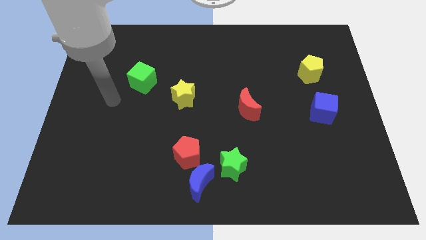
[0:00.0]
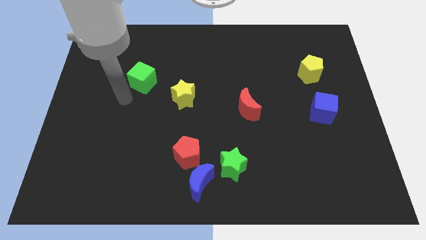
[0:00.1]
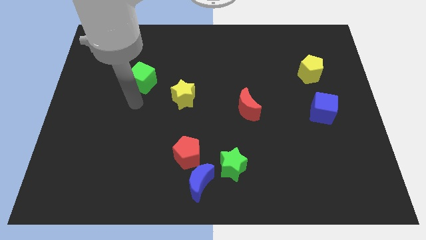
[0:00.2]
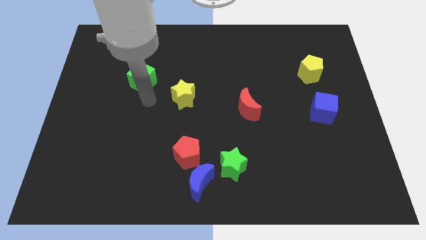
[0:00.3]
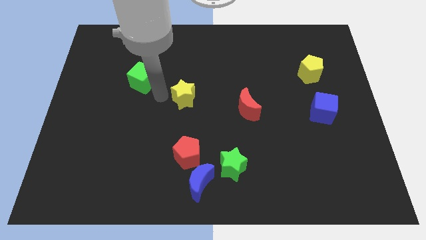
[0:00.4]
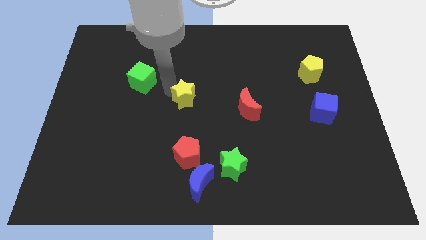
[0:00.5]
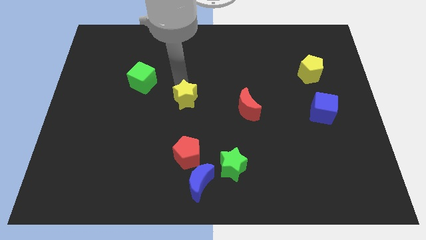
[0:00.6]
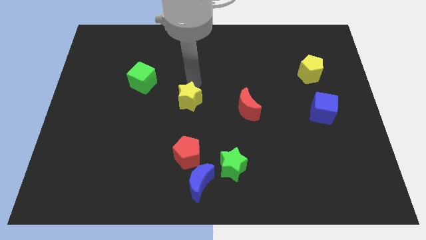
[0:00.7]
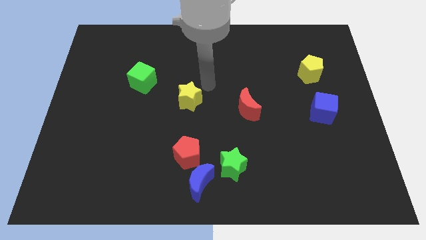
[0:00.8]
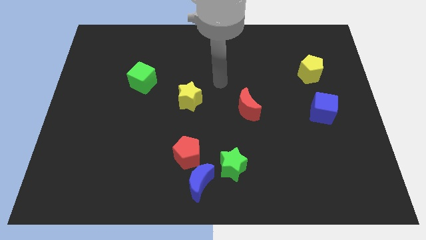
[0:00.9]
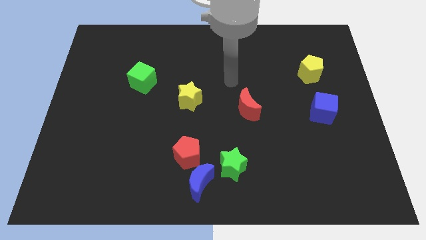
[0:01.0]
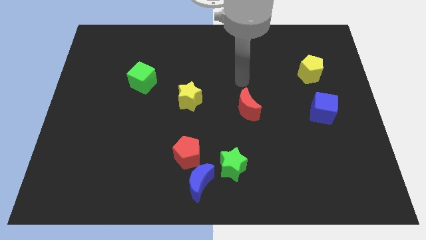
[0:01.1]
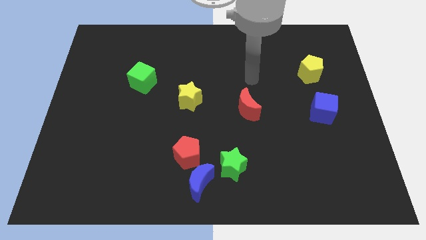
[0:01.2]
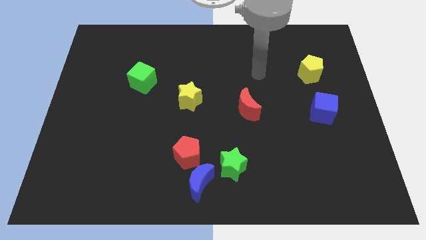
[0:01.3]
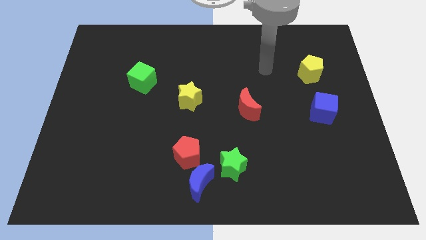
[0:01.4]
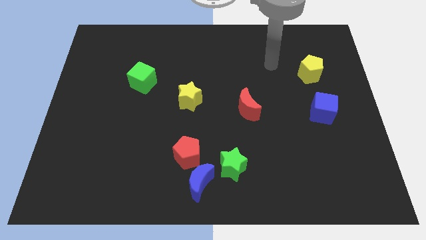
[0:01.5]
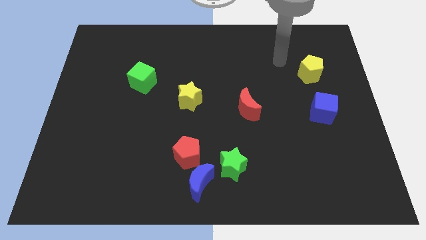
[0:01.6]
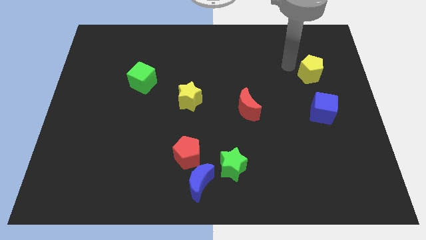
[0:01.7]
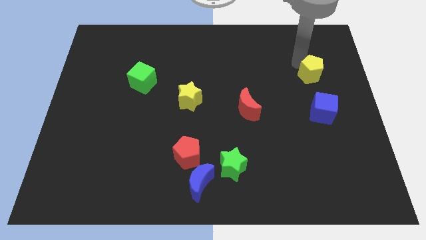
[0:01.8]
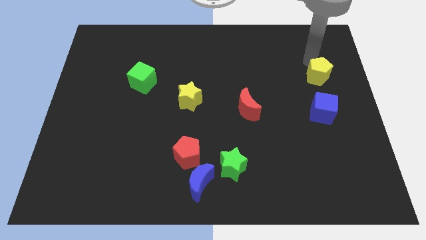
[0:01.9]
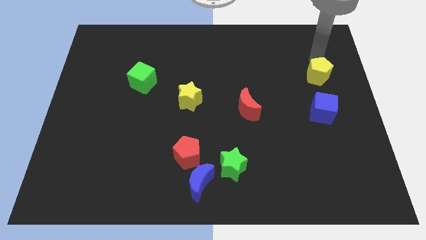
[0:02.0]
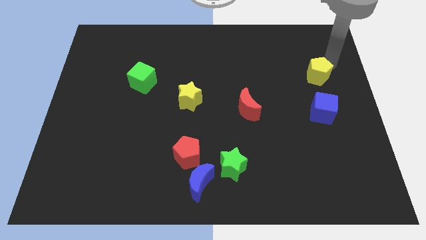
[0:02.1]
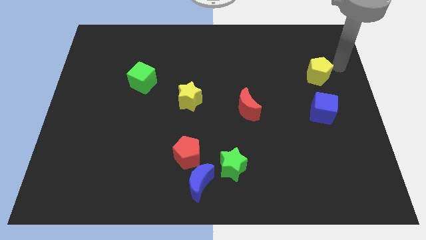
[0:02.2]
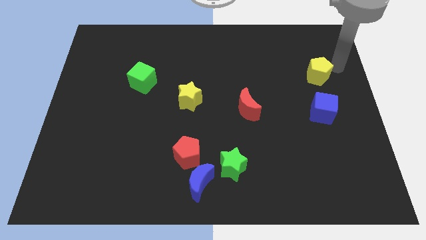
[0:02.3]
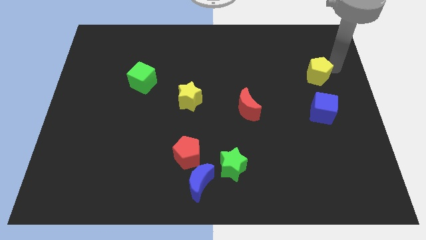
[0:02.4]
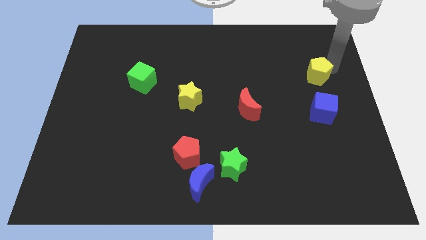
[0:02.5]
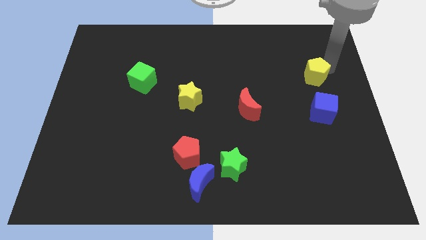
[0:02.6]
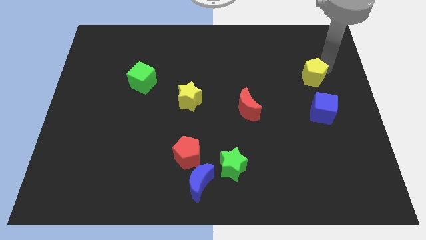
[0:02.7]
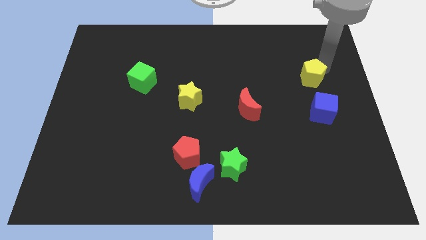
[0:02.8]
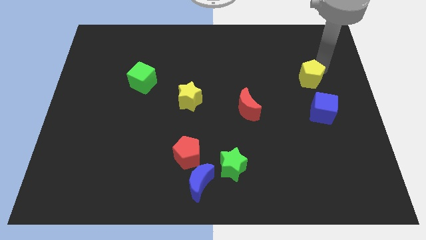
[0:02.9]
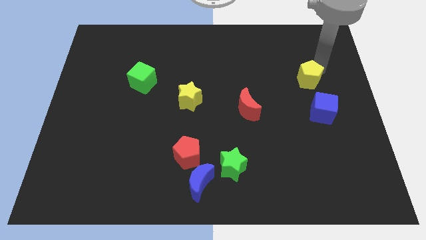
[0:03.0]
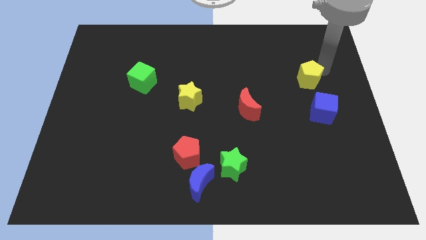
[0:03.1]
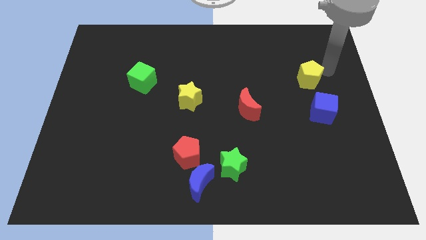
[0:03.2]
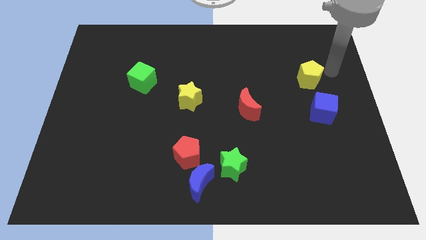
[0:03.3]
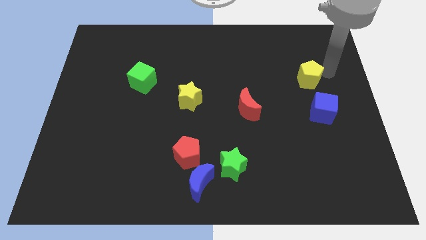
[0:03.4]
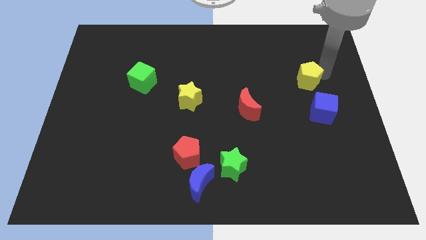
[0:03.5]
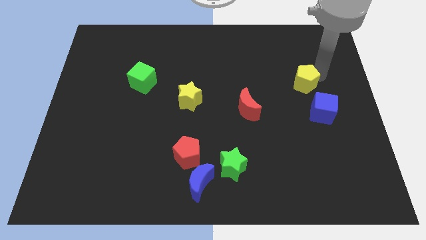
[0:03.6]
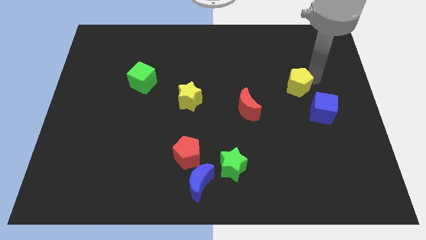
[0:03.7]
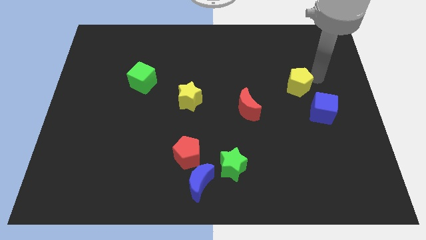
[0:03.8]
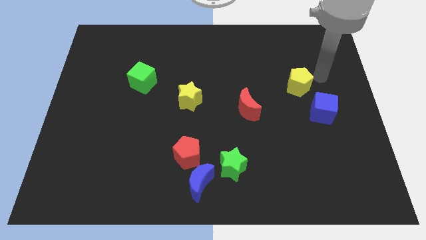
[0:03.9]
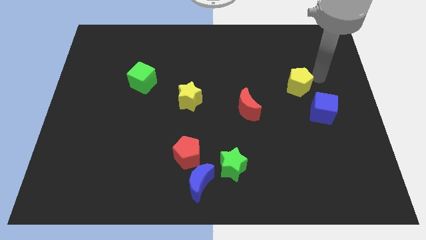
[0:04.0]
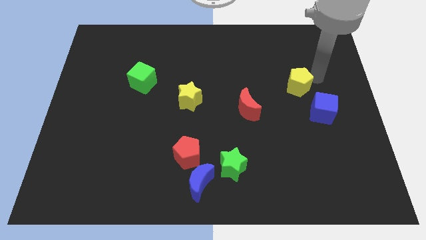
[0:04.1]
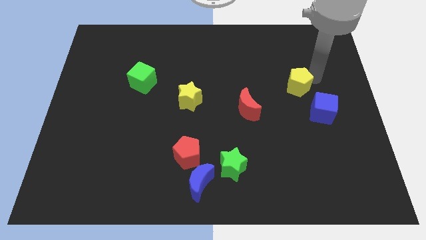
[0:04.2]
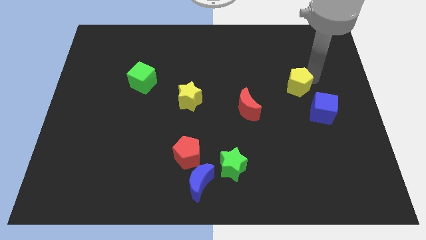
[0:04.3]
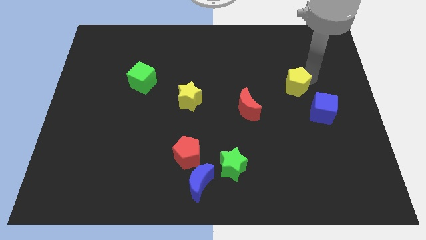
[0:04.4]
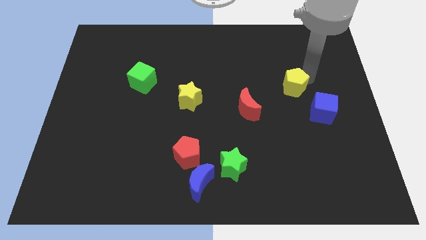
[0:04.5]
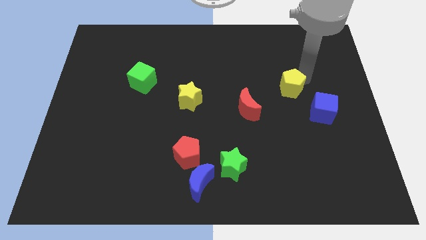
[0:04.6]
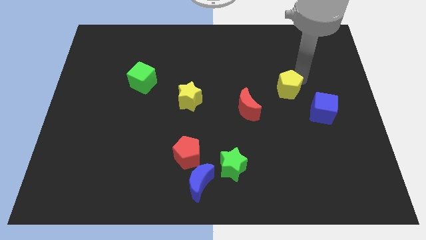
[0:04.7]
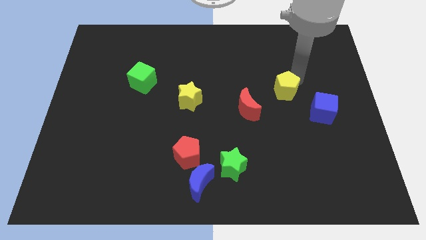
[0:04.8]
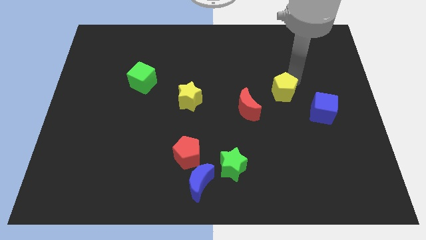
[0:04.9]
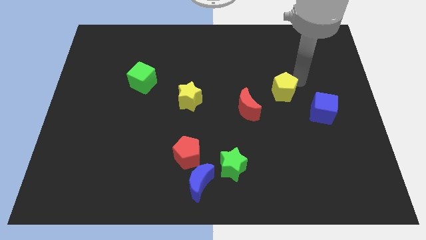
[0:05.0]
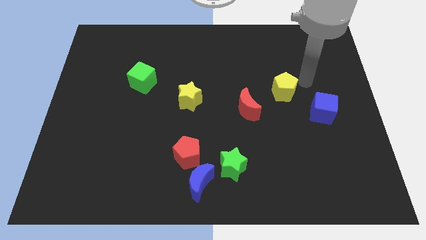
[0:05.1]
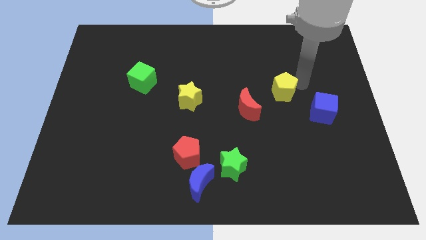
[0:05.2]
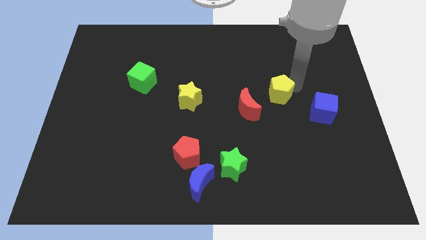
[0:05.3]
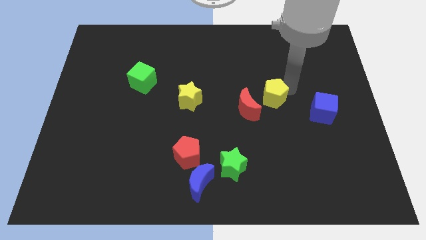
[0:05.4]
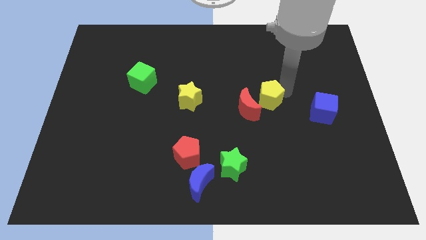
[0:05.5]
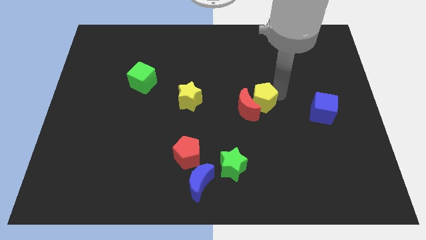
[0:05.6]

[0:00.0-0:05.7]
move the yellow pentagon to the red moon

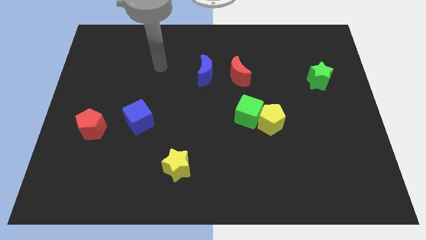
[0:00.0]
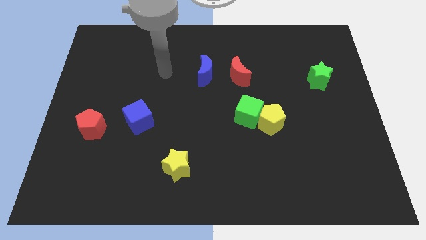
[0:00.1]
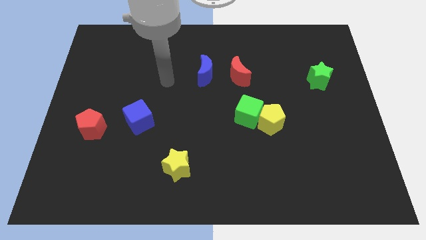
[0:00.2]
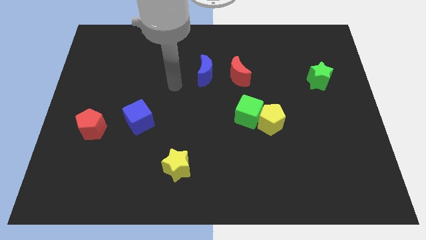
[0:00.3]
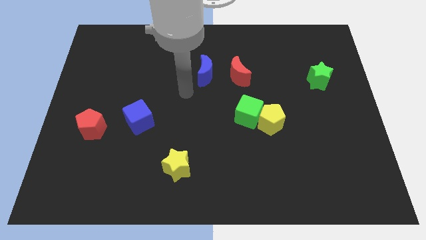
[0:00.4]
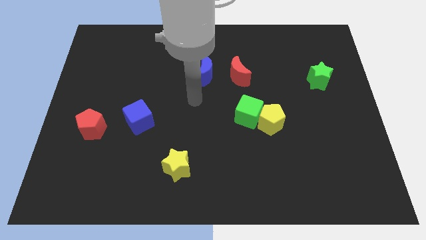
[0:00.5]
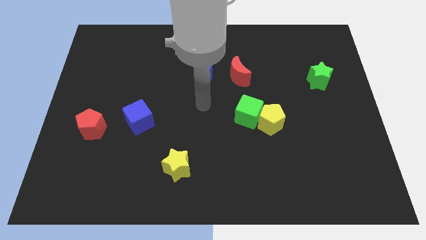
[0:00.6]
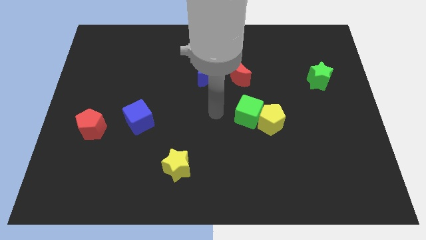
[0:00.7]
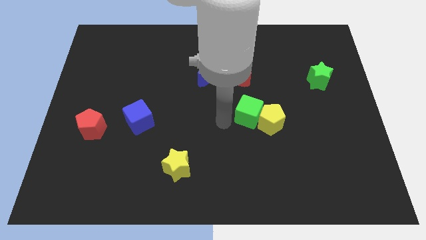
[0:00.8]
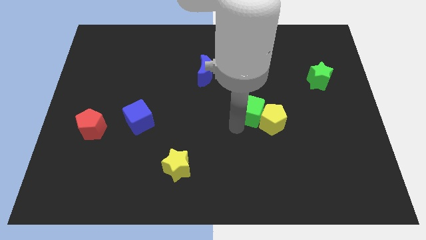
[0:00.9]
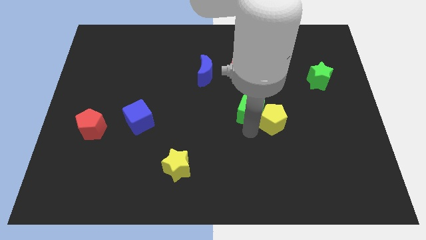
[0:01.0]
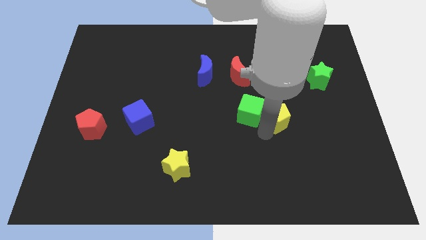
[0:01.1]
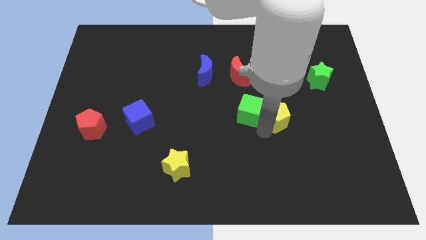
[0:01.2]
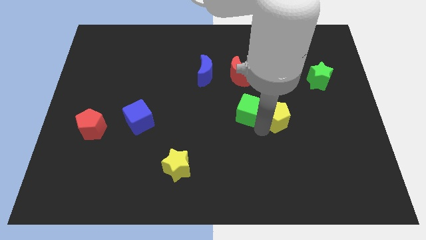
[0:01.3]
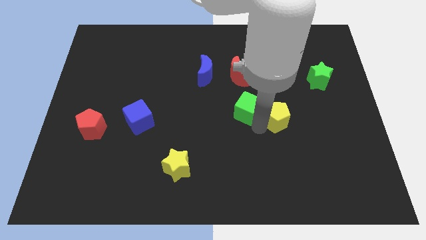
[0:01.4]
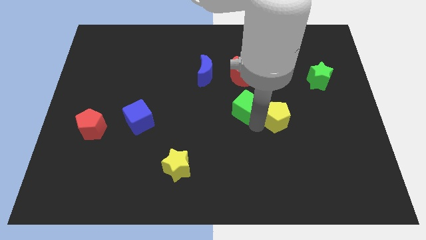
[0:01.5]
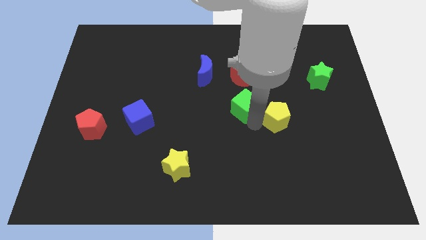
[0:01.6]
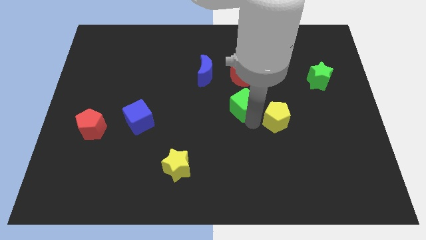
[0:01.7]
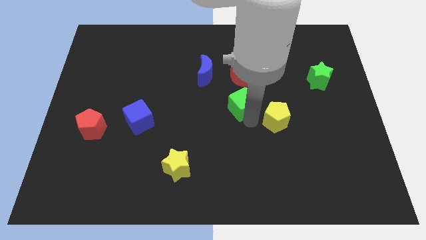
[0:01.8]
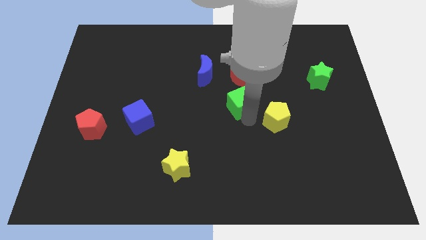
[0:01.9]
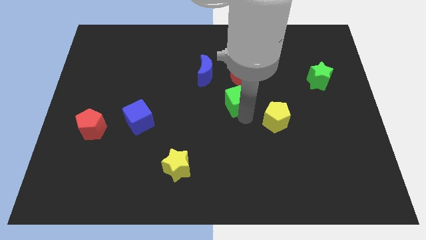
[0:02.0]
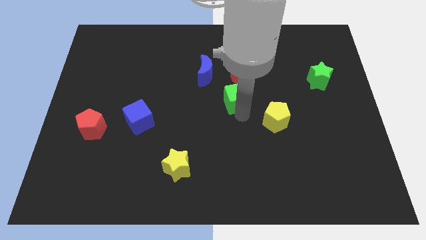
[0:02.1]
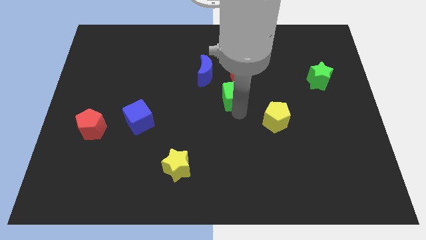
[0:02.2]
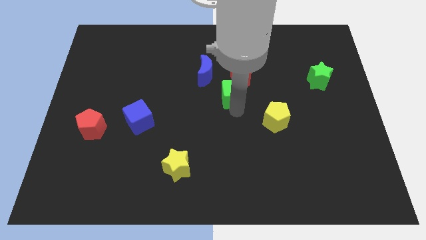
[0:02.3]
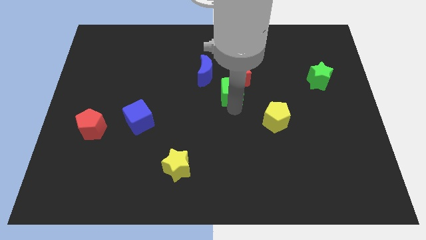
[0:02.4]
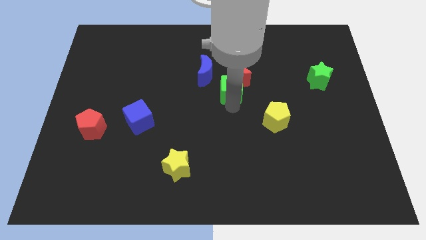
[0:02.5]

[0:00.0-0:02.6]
push the green cube next to the red moon
